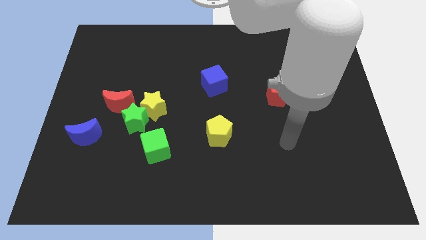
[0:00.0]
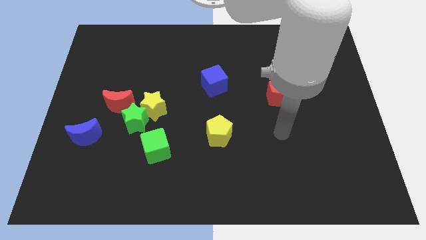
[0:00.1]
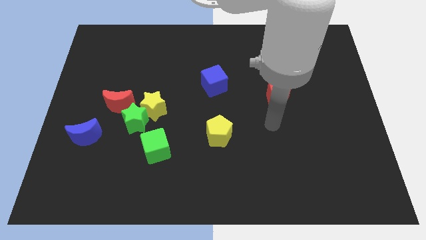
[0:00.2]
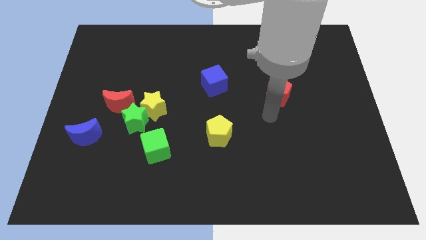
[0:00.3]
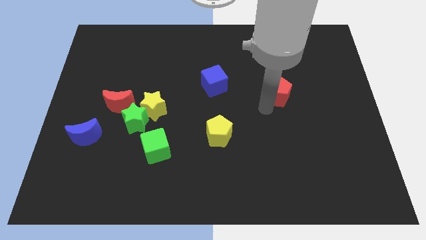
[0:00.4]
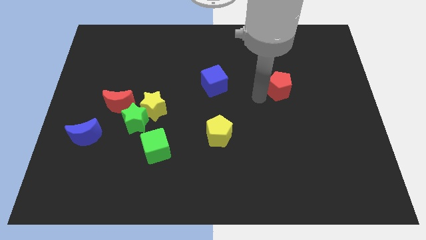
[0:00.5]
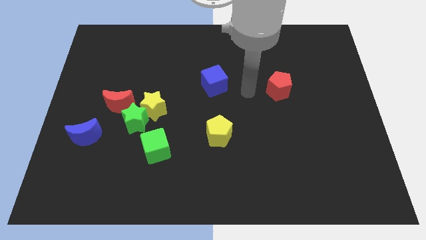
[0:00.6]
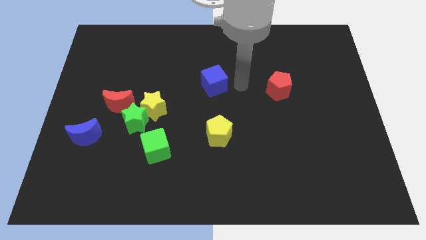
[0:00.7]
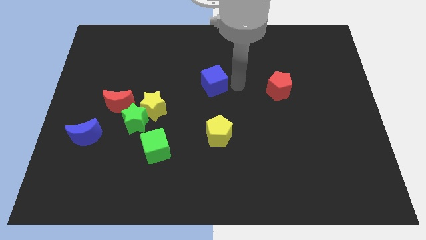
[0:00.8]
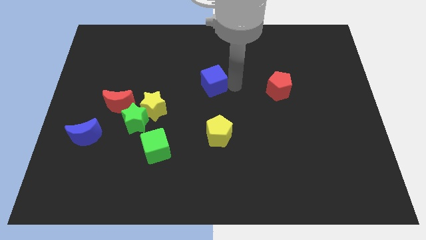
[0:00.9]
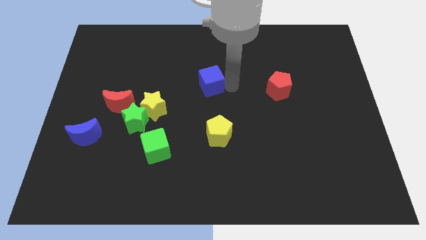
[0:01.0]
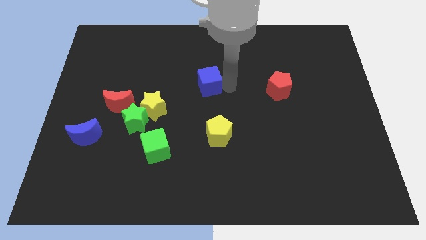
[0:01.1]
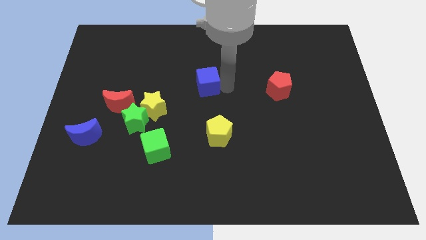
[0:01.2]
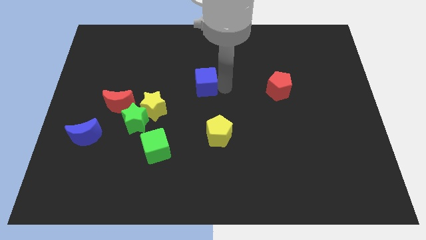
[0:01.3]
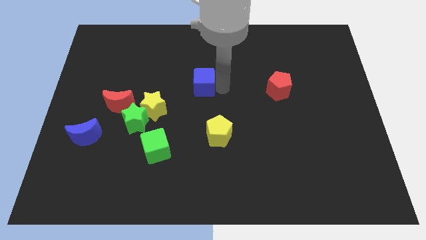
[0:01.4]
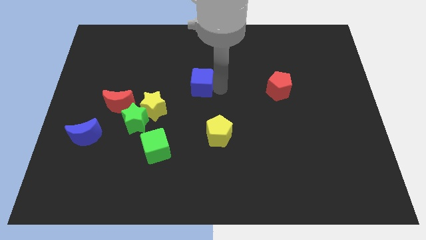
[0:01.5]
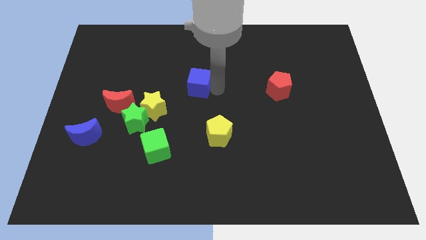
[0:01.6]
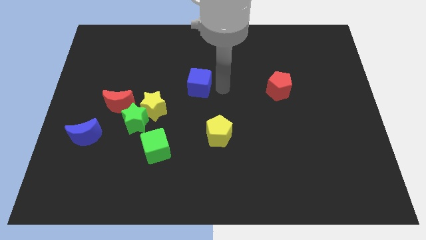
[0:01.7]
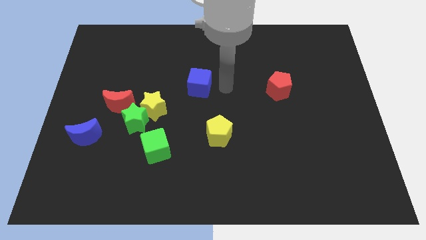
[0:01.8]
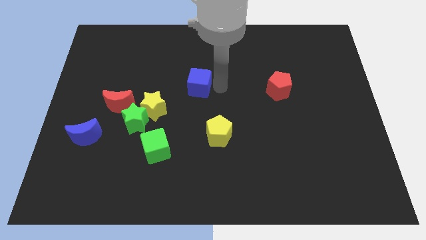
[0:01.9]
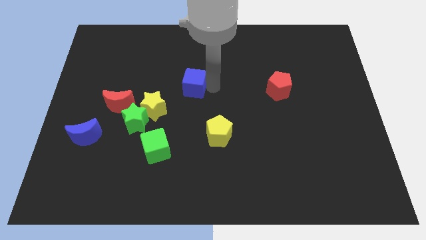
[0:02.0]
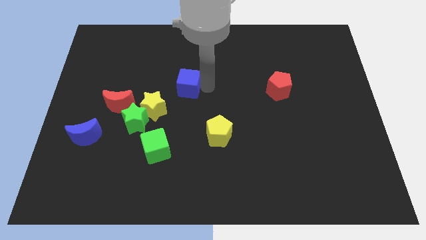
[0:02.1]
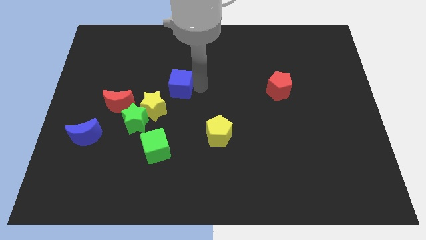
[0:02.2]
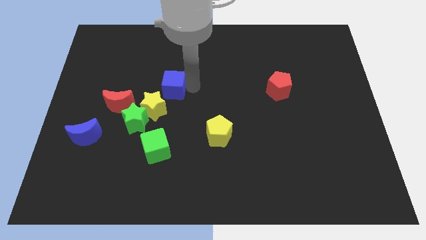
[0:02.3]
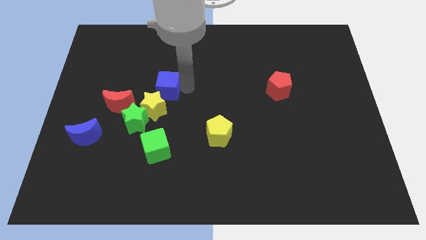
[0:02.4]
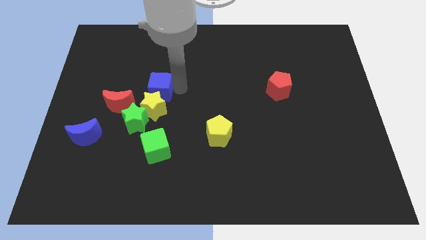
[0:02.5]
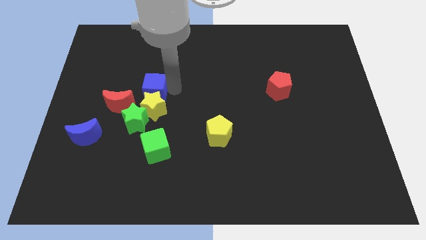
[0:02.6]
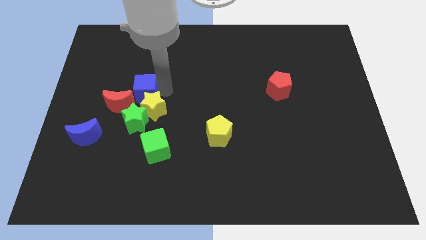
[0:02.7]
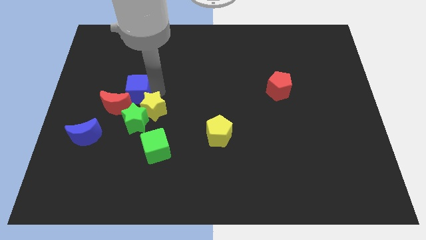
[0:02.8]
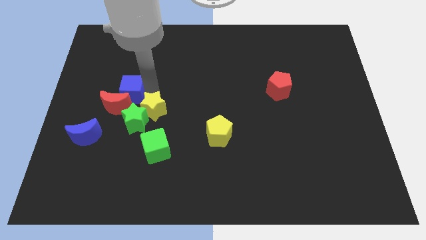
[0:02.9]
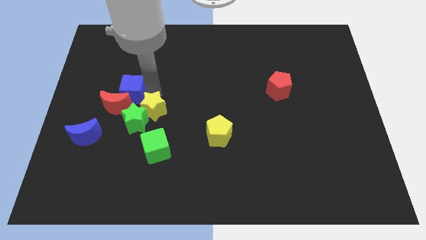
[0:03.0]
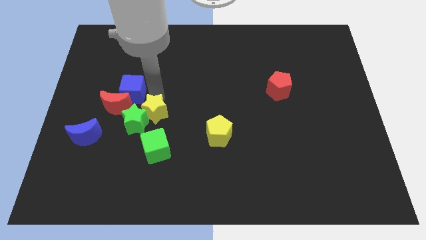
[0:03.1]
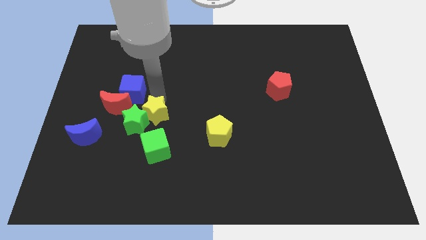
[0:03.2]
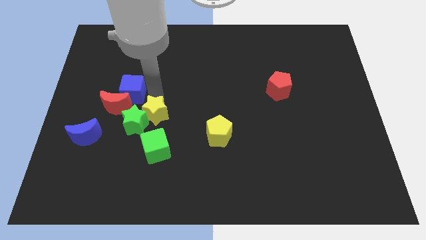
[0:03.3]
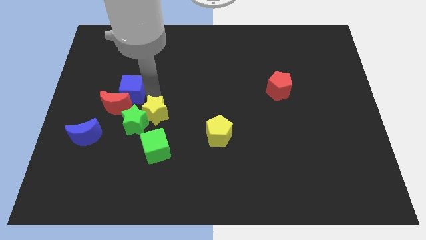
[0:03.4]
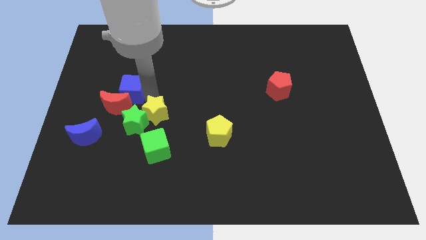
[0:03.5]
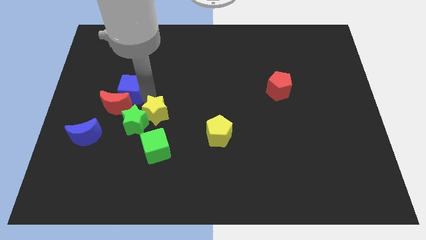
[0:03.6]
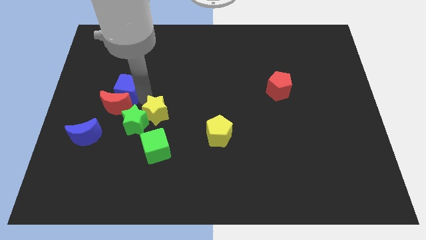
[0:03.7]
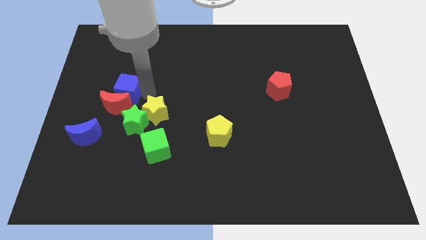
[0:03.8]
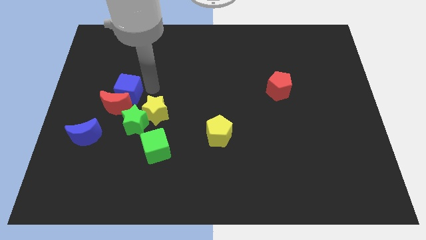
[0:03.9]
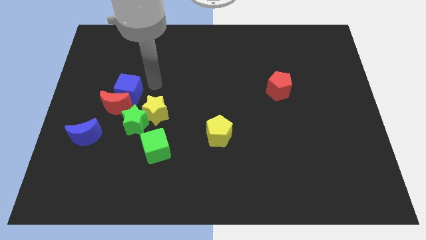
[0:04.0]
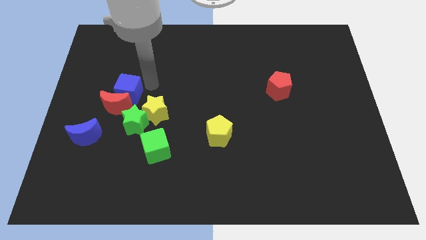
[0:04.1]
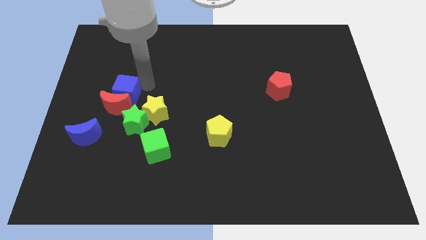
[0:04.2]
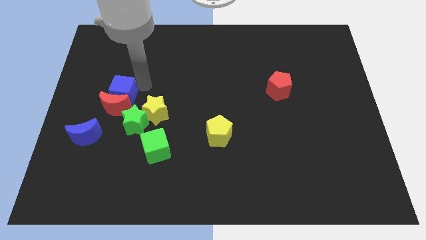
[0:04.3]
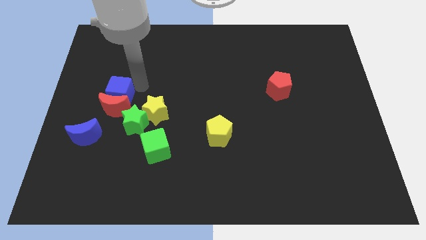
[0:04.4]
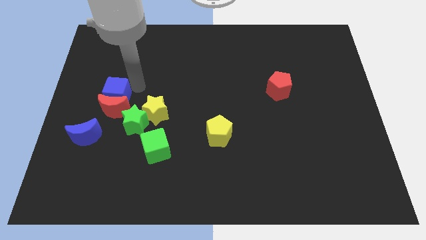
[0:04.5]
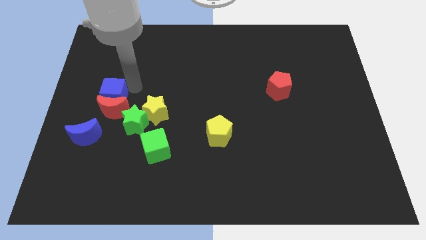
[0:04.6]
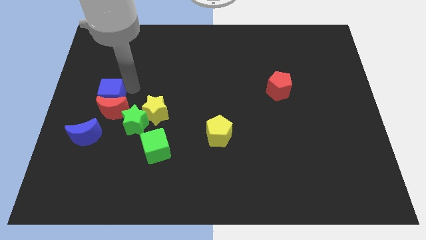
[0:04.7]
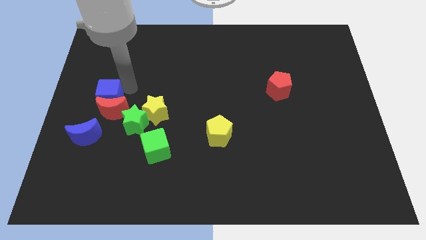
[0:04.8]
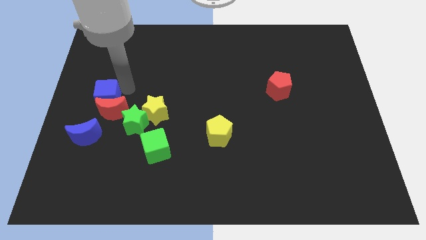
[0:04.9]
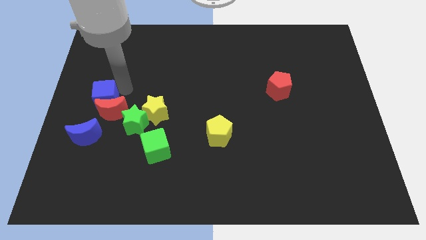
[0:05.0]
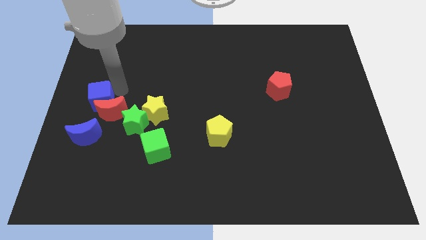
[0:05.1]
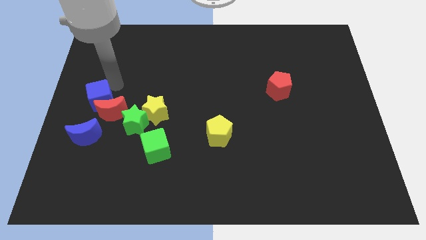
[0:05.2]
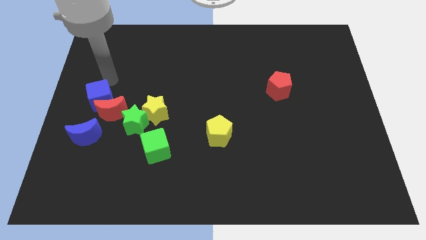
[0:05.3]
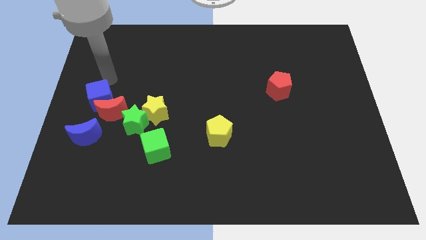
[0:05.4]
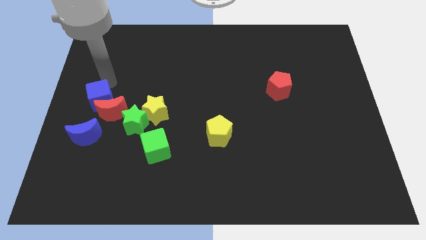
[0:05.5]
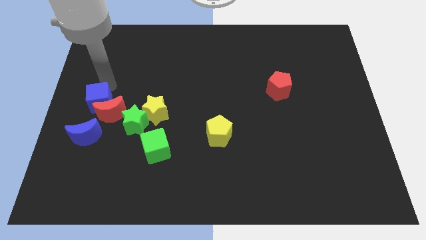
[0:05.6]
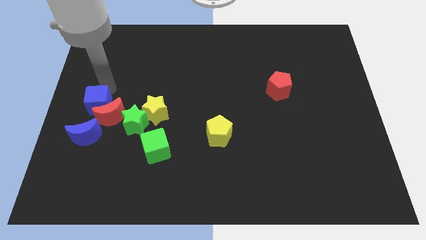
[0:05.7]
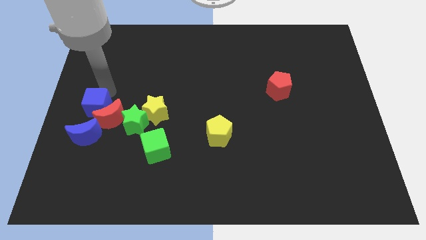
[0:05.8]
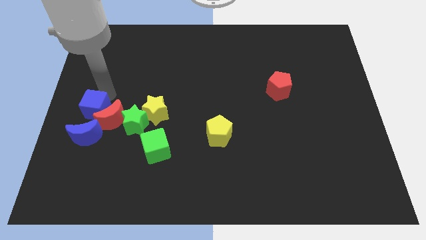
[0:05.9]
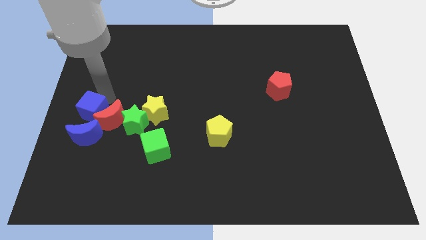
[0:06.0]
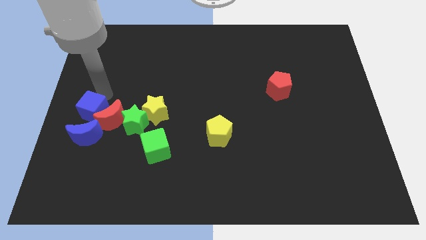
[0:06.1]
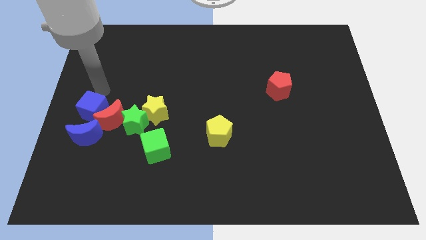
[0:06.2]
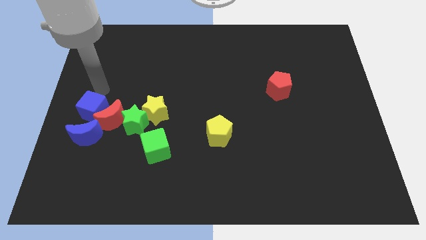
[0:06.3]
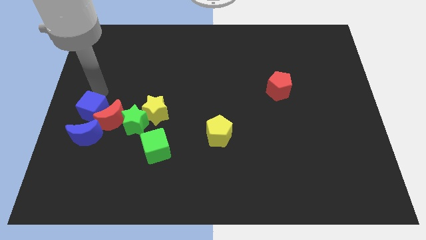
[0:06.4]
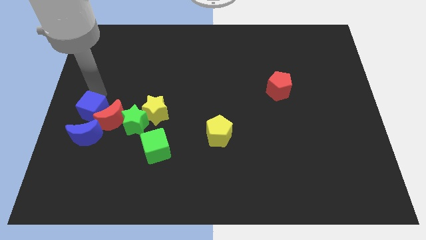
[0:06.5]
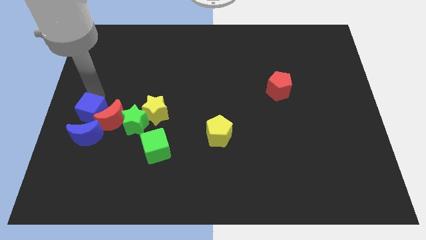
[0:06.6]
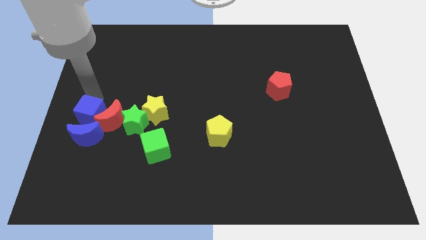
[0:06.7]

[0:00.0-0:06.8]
push the blue cube close to the blue moon

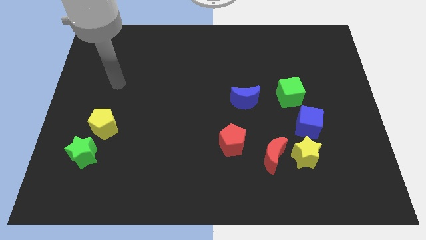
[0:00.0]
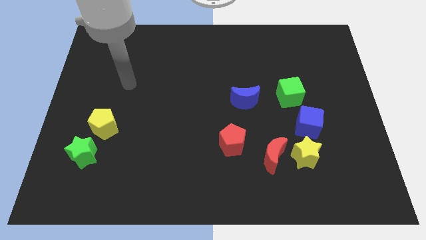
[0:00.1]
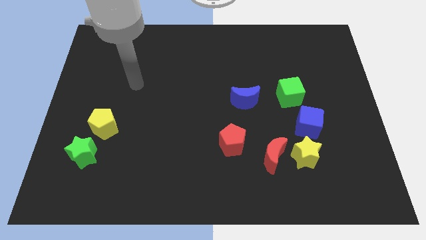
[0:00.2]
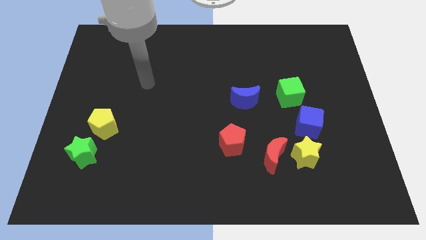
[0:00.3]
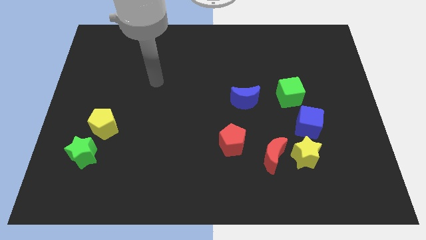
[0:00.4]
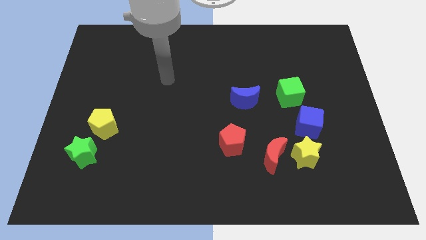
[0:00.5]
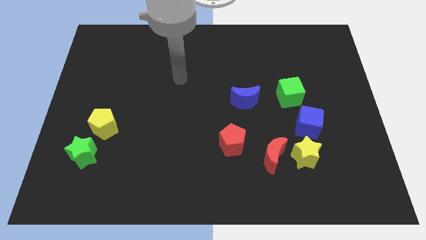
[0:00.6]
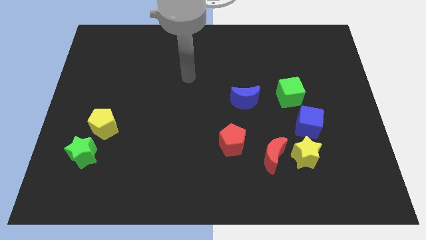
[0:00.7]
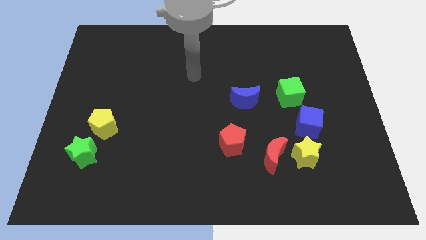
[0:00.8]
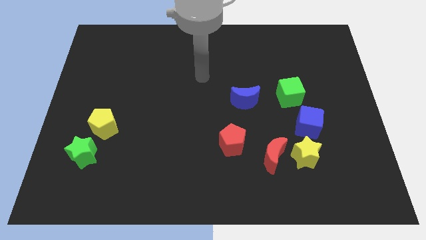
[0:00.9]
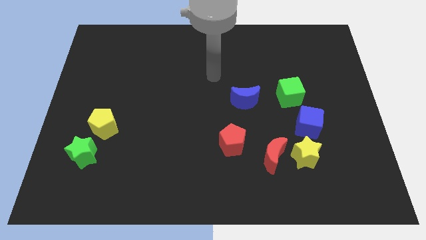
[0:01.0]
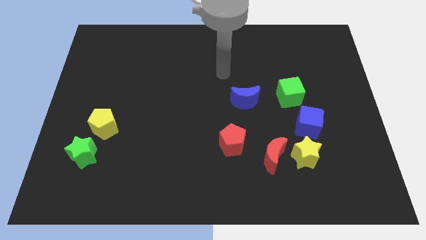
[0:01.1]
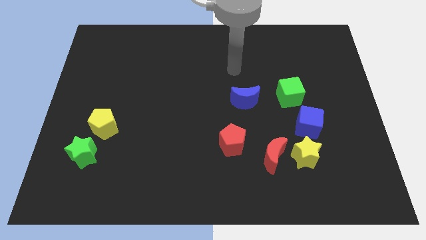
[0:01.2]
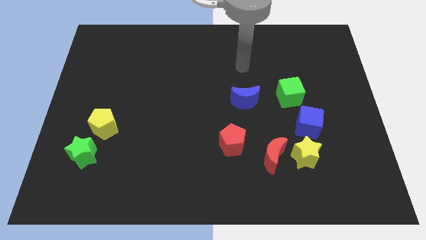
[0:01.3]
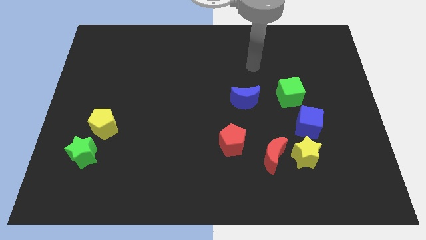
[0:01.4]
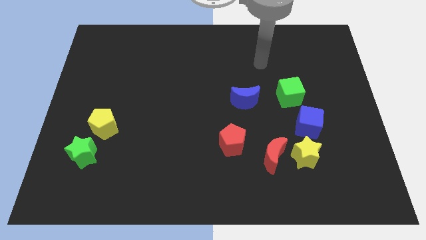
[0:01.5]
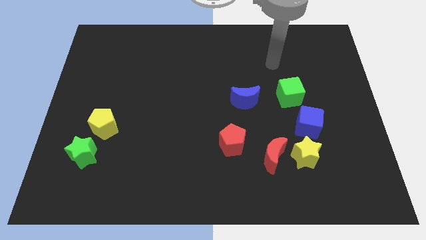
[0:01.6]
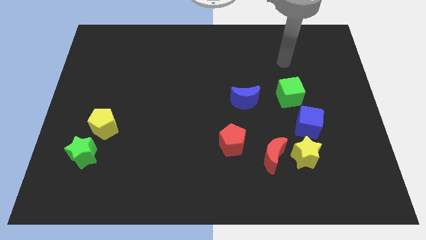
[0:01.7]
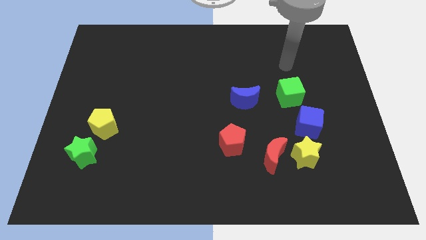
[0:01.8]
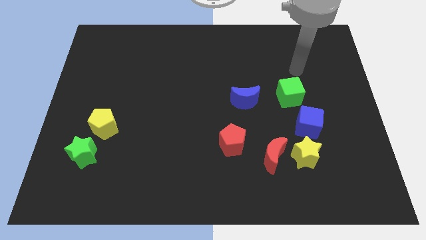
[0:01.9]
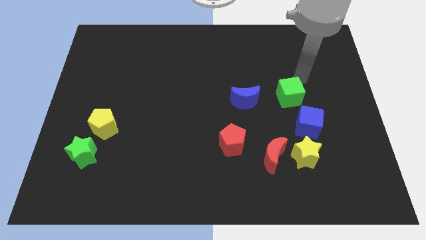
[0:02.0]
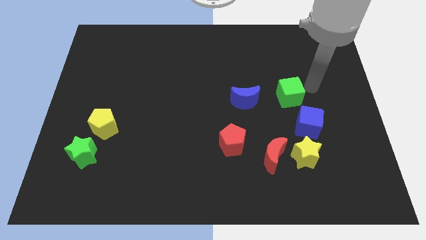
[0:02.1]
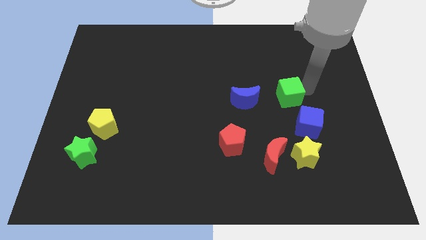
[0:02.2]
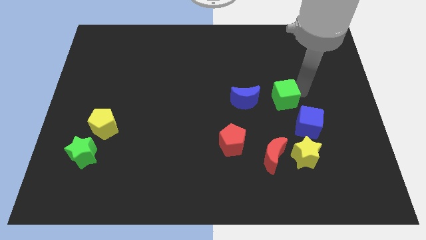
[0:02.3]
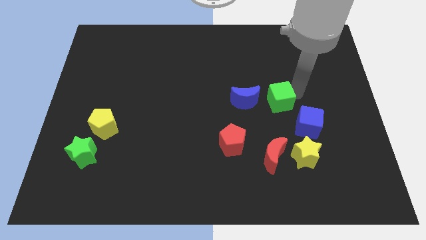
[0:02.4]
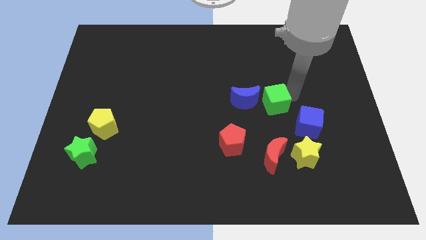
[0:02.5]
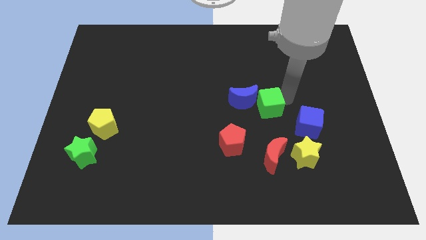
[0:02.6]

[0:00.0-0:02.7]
push the green cube towards the blue moon
